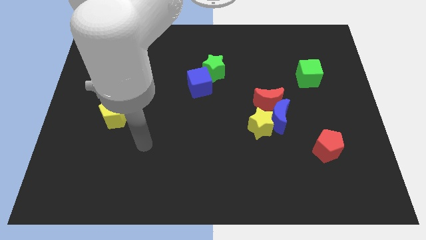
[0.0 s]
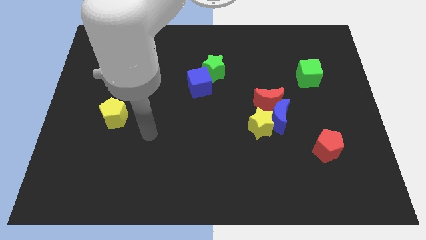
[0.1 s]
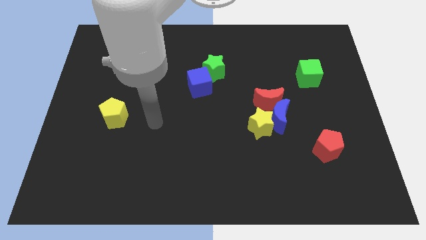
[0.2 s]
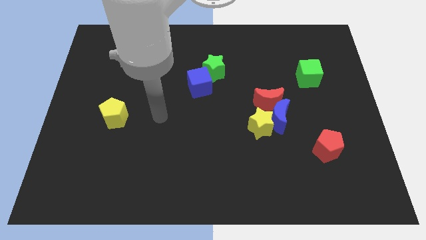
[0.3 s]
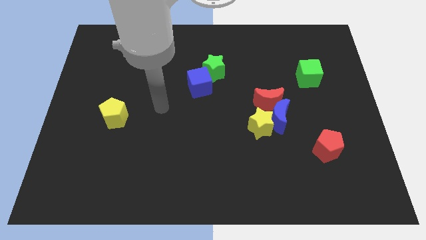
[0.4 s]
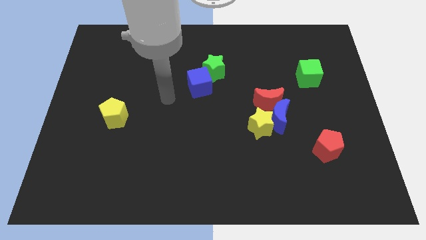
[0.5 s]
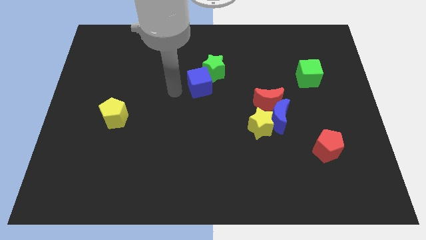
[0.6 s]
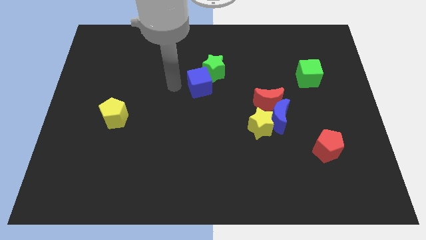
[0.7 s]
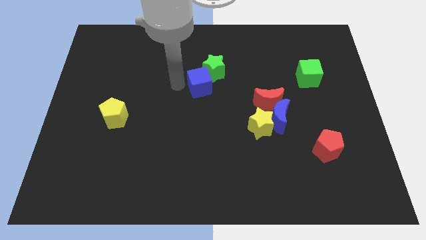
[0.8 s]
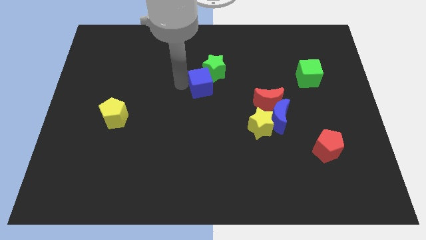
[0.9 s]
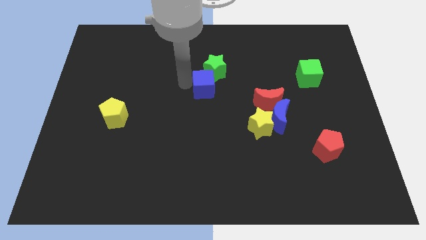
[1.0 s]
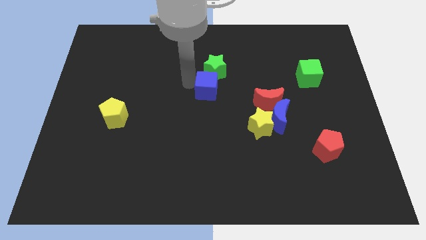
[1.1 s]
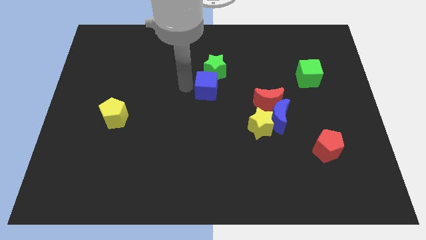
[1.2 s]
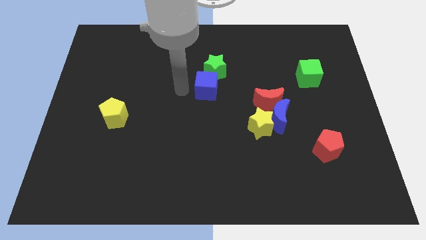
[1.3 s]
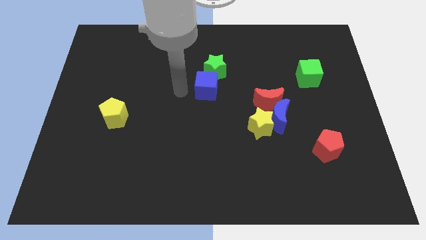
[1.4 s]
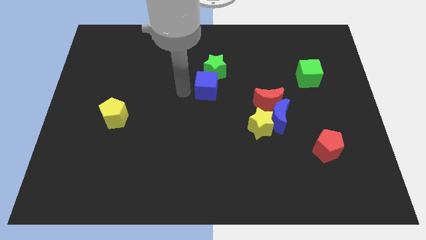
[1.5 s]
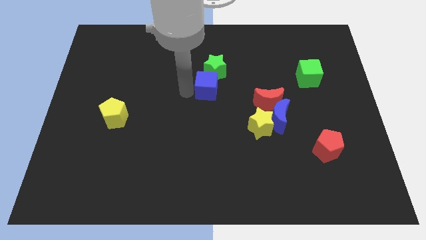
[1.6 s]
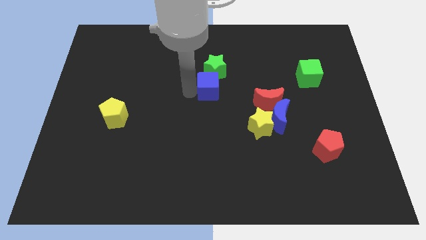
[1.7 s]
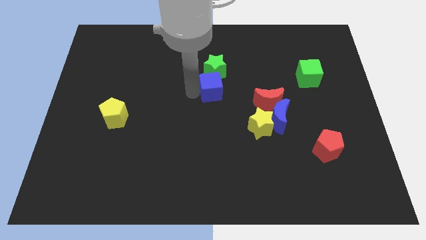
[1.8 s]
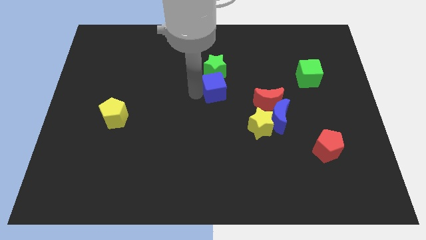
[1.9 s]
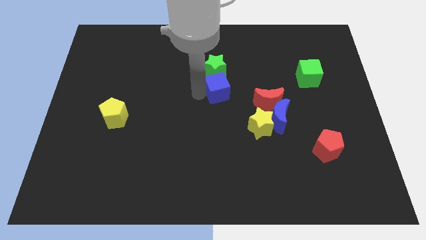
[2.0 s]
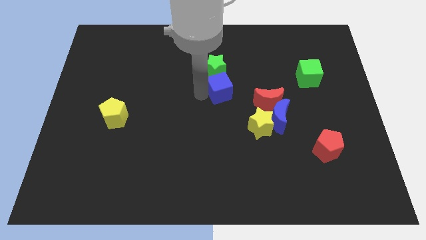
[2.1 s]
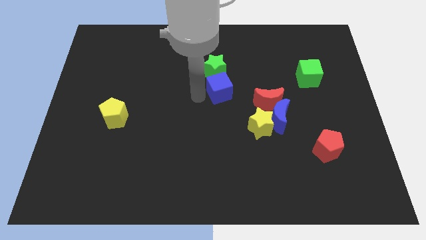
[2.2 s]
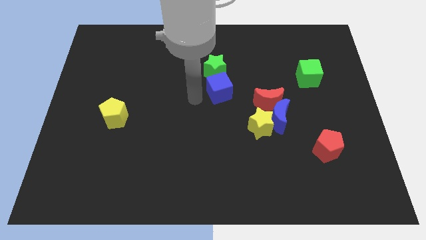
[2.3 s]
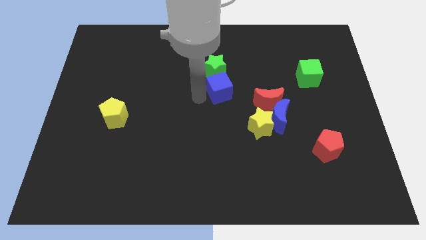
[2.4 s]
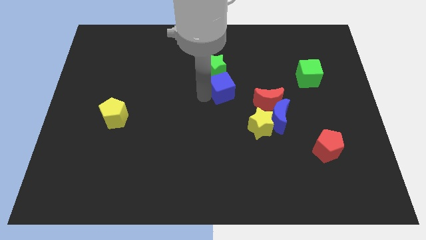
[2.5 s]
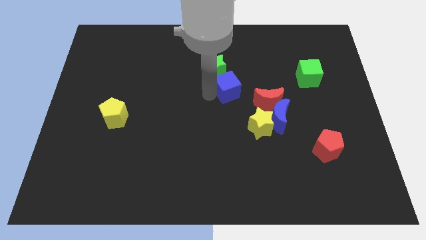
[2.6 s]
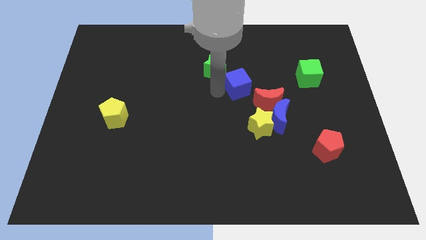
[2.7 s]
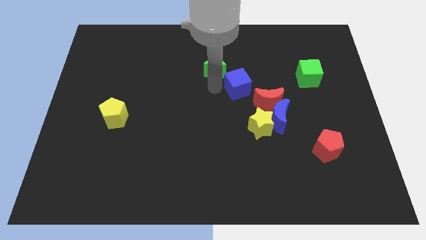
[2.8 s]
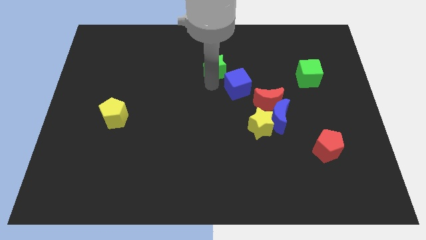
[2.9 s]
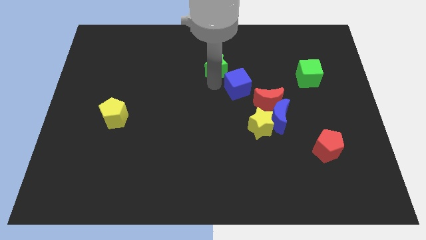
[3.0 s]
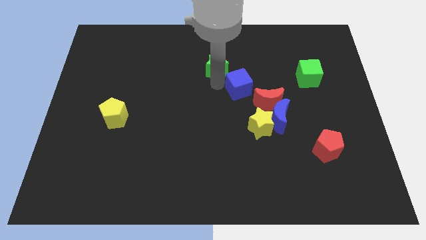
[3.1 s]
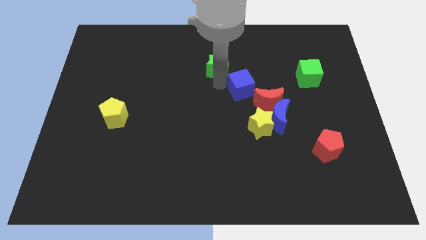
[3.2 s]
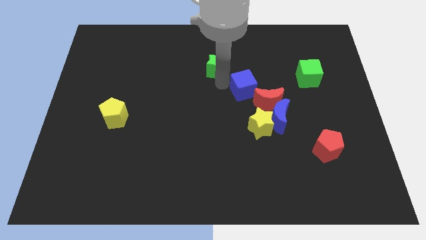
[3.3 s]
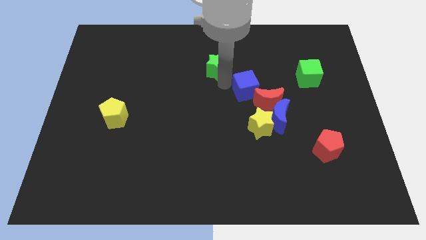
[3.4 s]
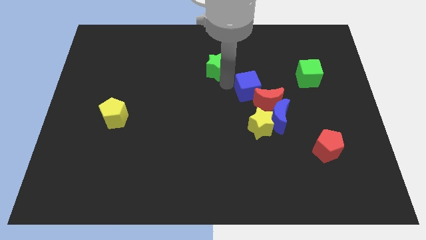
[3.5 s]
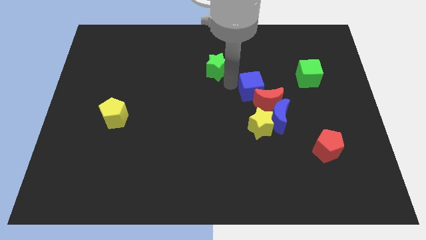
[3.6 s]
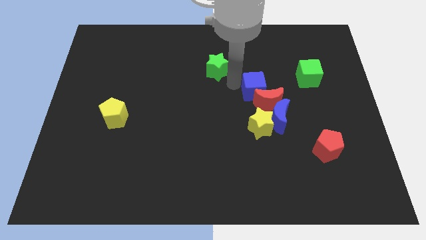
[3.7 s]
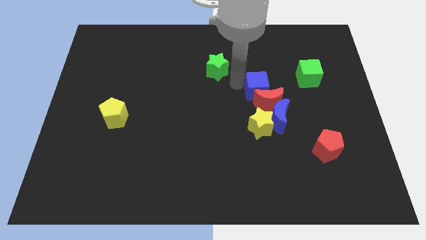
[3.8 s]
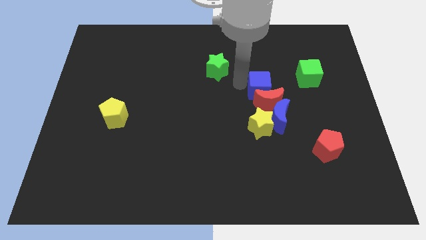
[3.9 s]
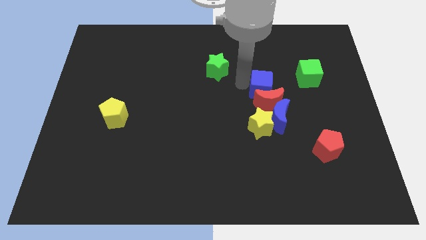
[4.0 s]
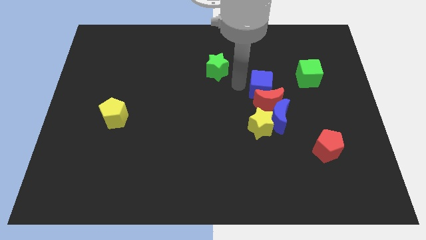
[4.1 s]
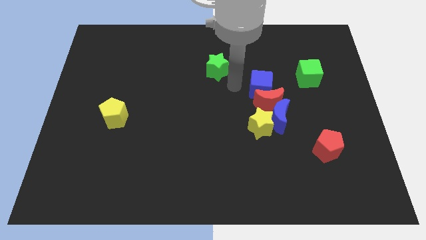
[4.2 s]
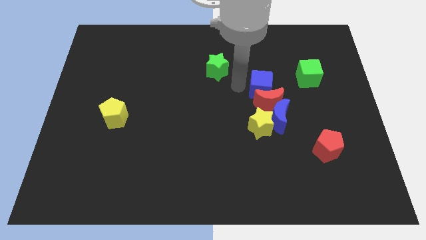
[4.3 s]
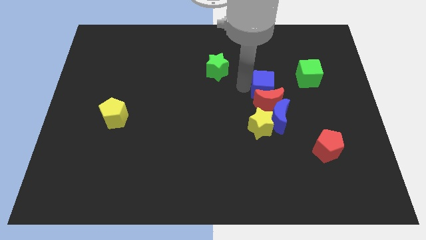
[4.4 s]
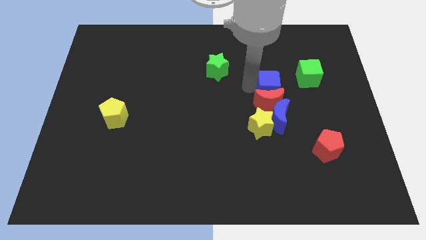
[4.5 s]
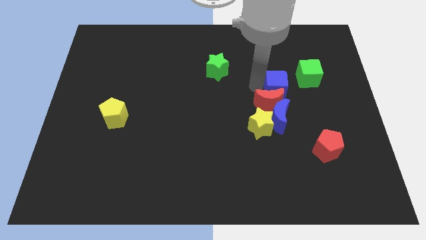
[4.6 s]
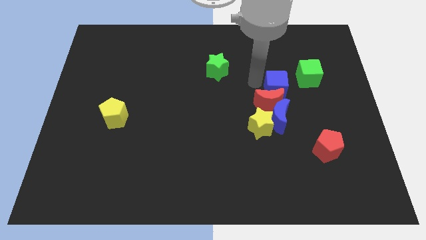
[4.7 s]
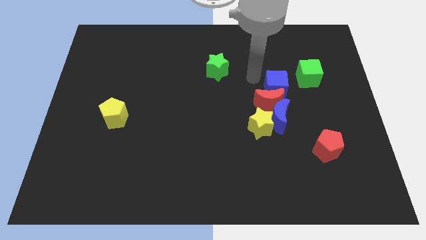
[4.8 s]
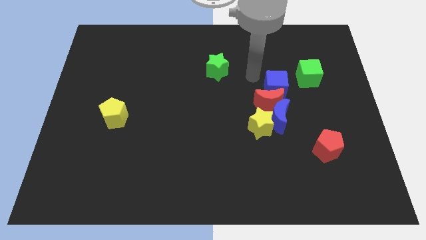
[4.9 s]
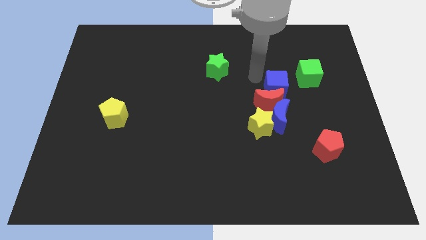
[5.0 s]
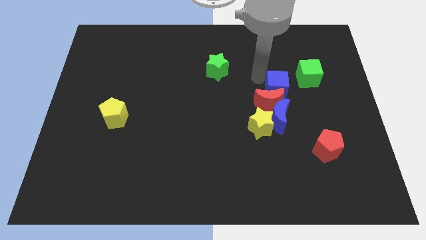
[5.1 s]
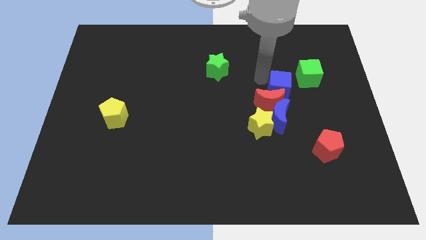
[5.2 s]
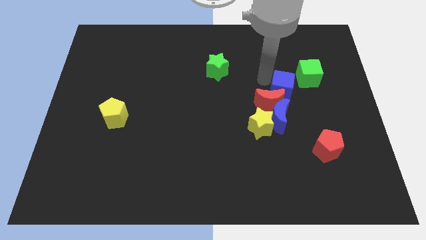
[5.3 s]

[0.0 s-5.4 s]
push the blue cube right

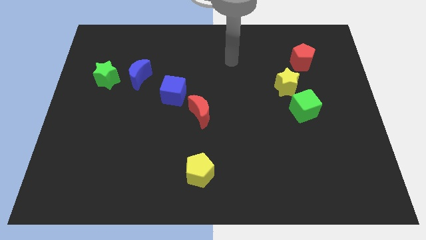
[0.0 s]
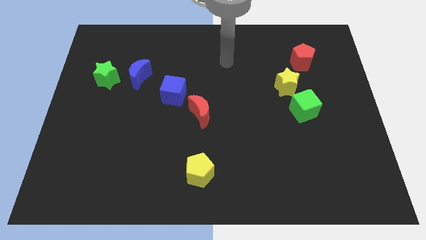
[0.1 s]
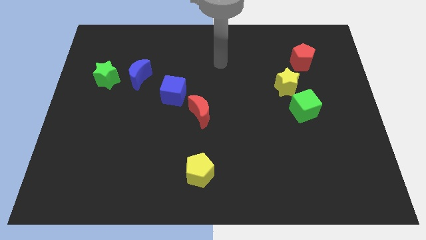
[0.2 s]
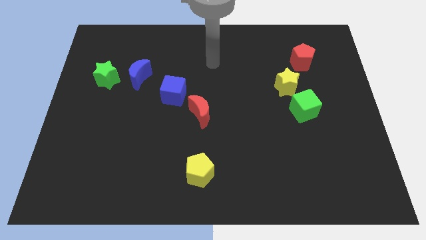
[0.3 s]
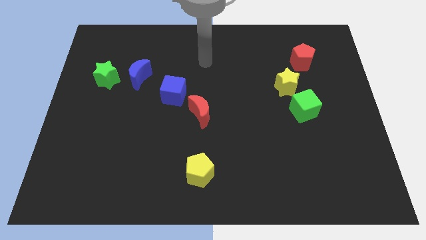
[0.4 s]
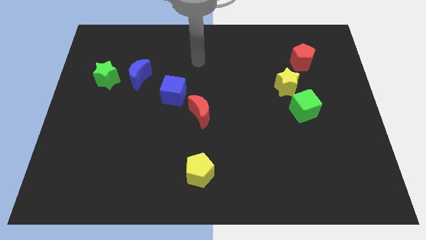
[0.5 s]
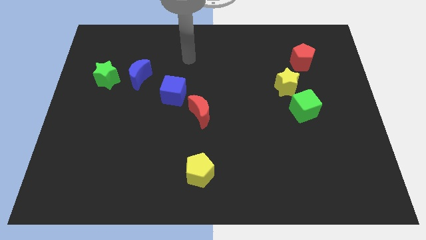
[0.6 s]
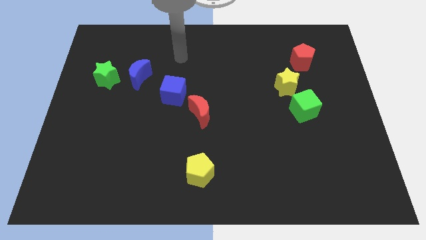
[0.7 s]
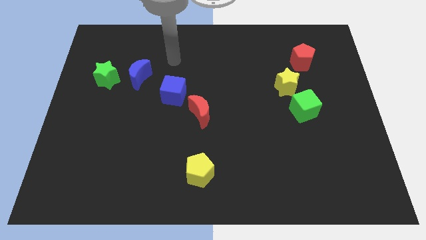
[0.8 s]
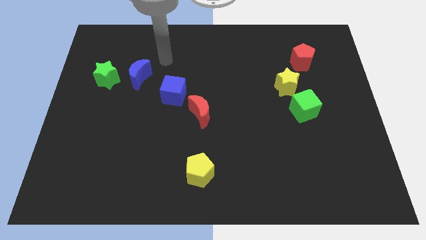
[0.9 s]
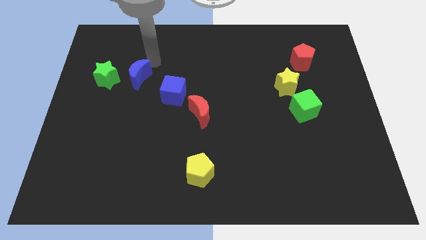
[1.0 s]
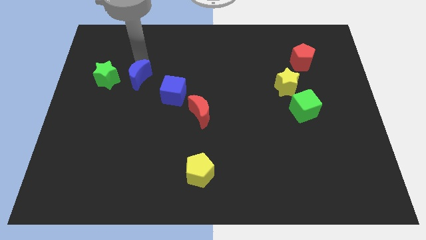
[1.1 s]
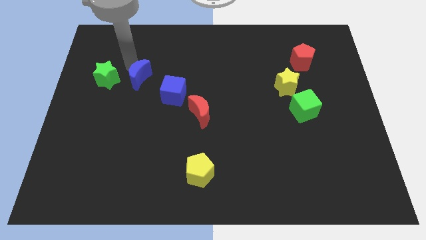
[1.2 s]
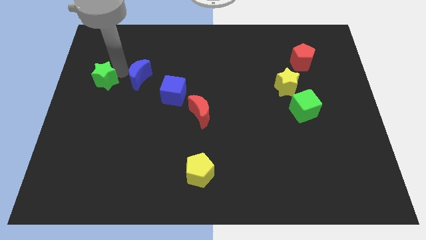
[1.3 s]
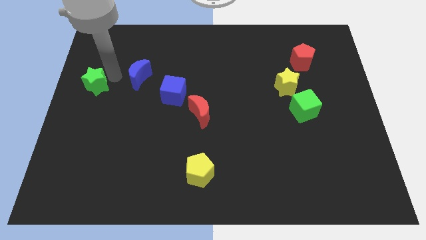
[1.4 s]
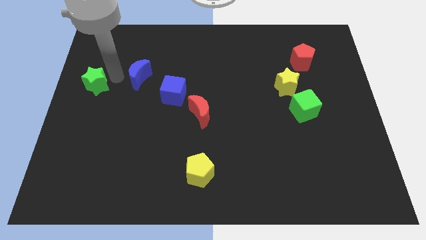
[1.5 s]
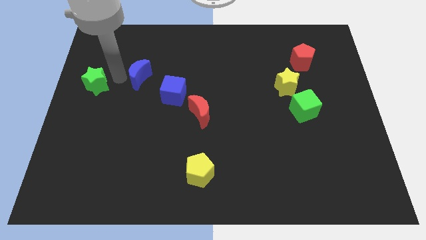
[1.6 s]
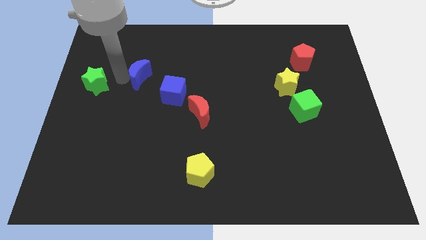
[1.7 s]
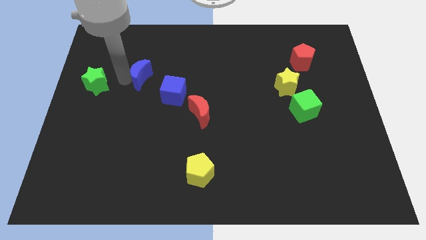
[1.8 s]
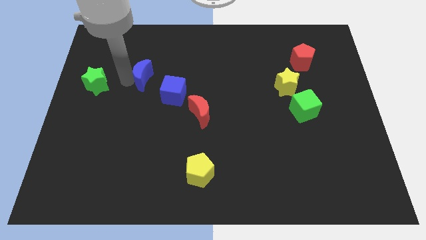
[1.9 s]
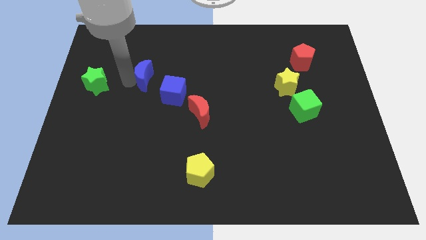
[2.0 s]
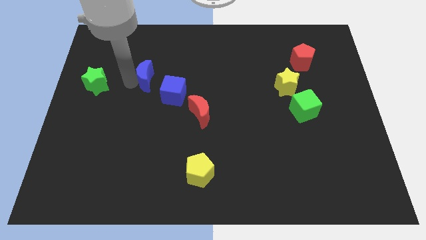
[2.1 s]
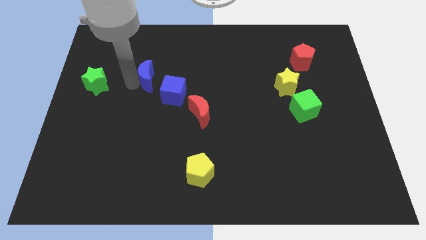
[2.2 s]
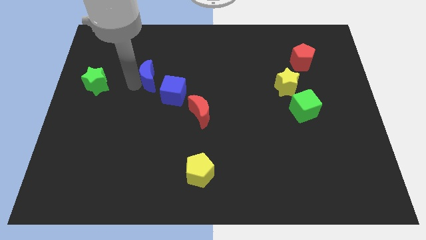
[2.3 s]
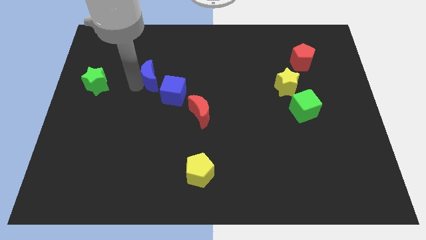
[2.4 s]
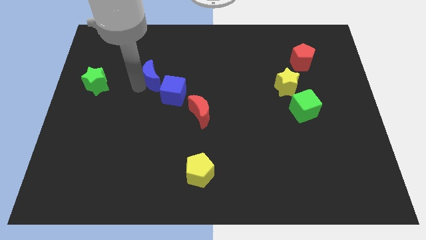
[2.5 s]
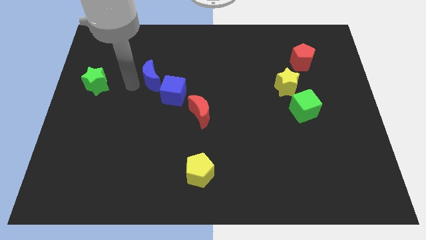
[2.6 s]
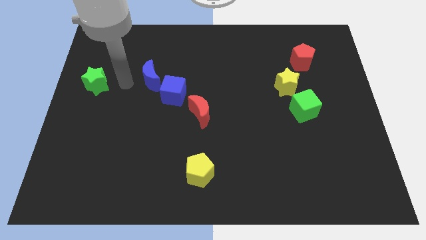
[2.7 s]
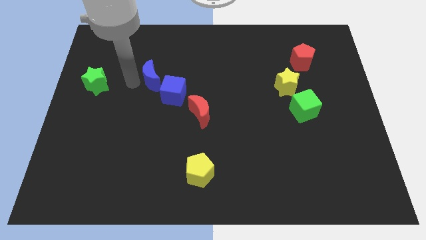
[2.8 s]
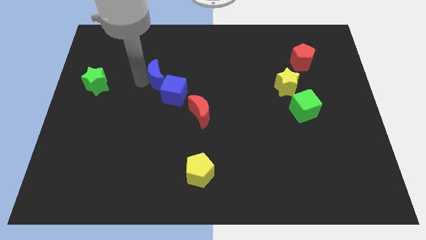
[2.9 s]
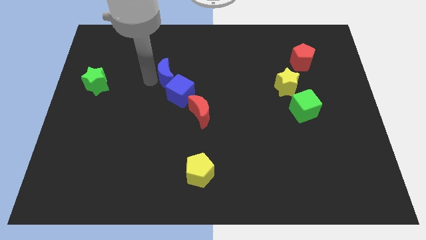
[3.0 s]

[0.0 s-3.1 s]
slightly slide the blue moon to the right
